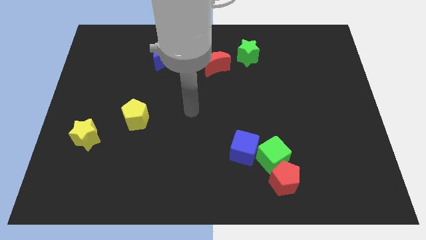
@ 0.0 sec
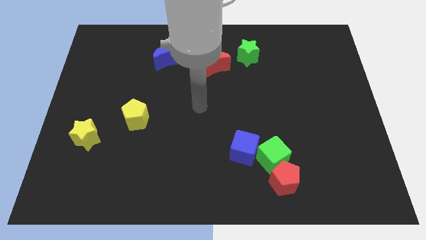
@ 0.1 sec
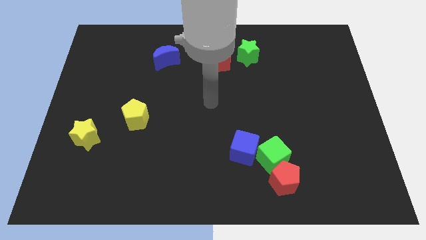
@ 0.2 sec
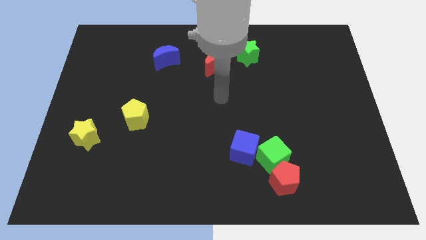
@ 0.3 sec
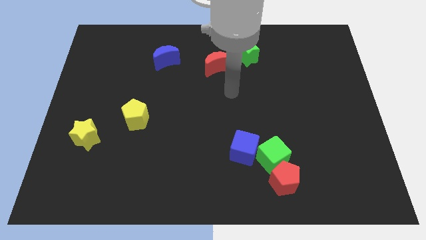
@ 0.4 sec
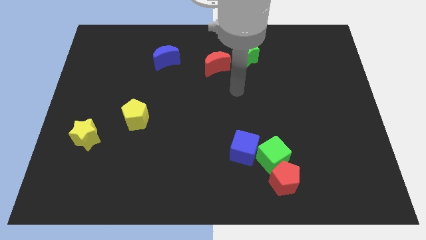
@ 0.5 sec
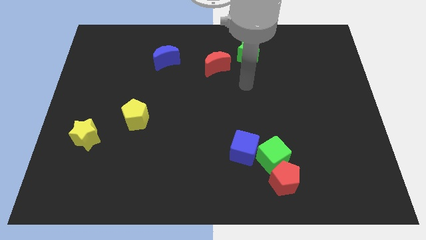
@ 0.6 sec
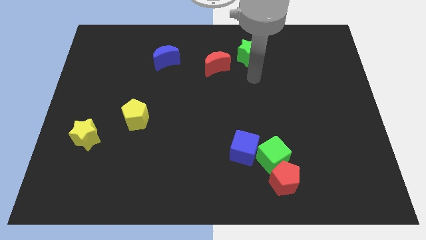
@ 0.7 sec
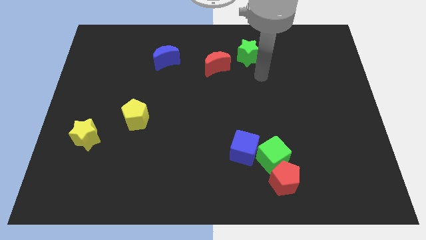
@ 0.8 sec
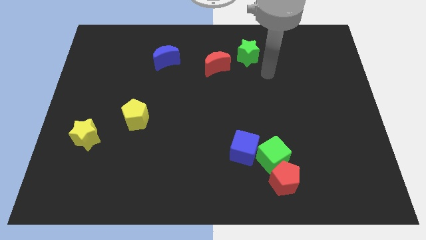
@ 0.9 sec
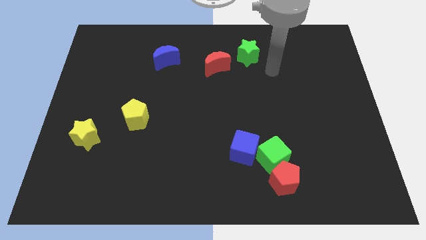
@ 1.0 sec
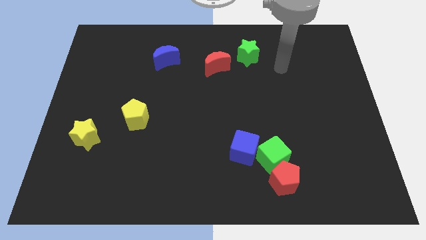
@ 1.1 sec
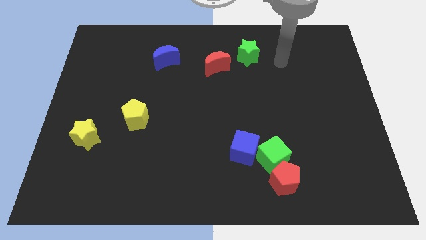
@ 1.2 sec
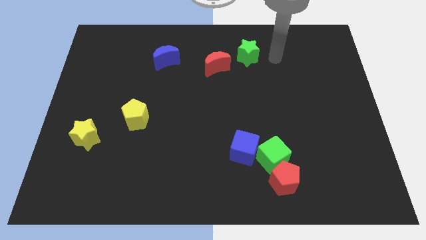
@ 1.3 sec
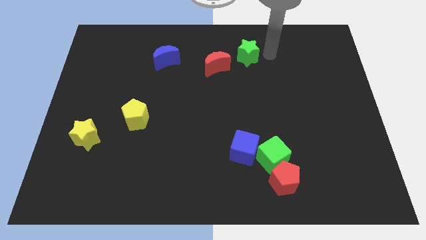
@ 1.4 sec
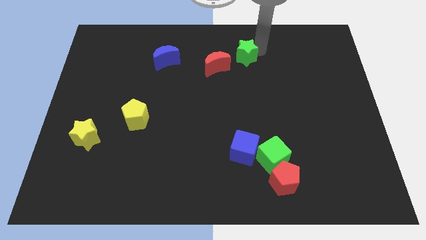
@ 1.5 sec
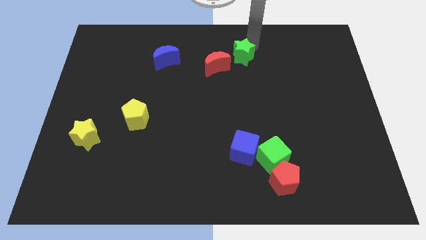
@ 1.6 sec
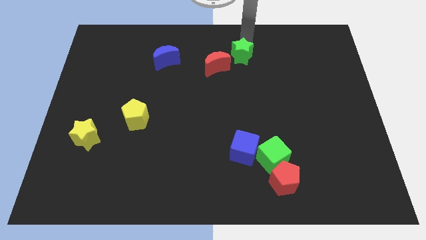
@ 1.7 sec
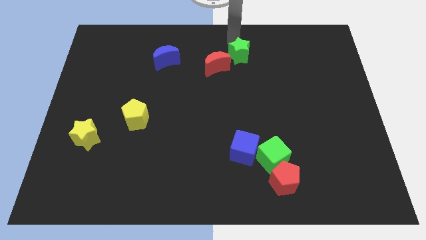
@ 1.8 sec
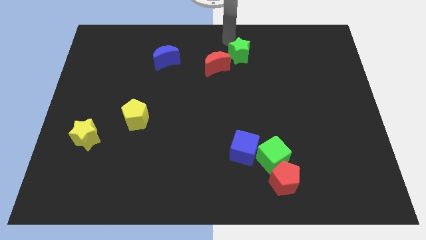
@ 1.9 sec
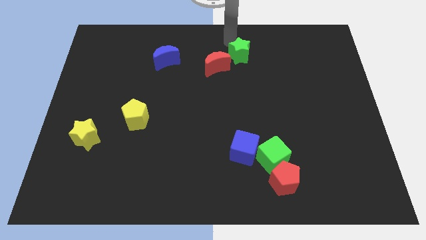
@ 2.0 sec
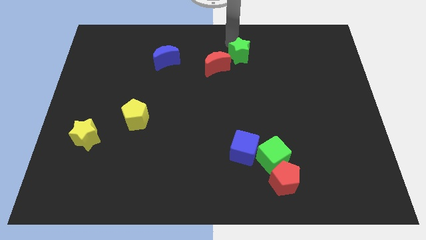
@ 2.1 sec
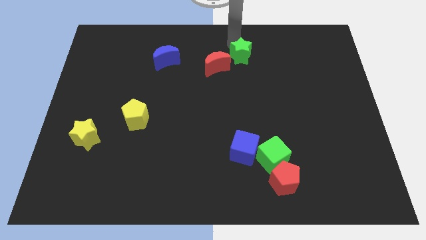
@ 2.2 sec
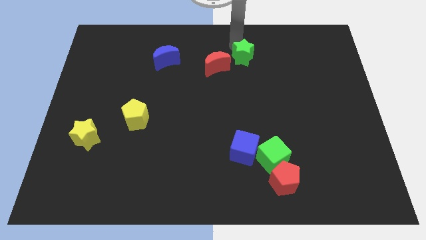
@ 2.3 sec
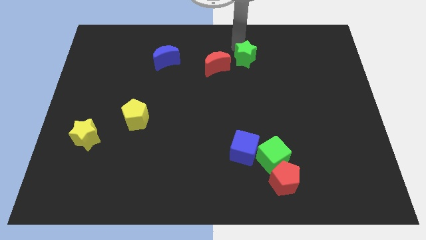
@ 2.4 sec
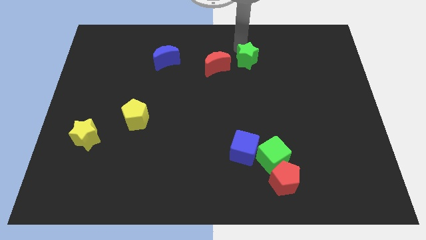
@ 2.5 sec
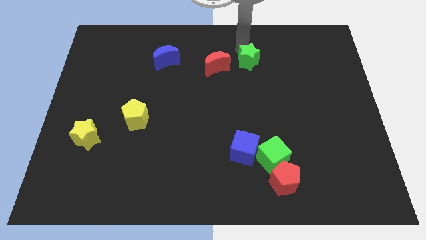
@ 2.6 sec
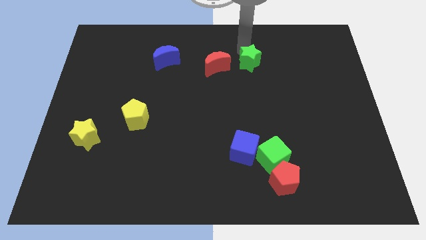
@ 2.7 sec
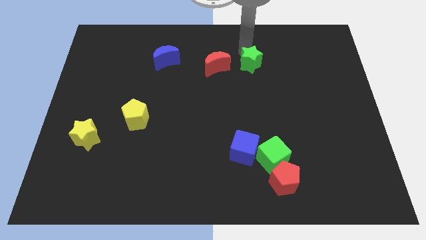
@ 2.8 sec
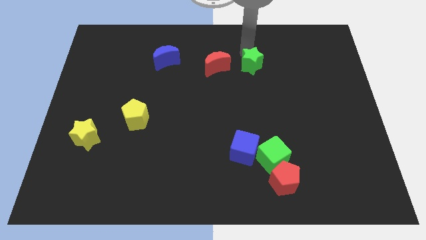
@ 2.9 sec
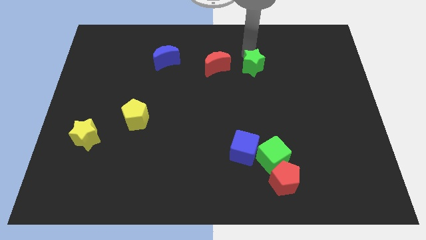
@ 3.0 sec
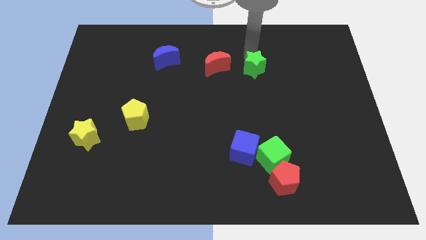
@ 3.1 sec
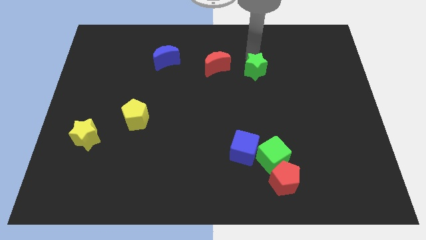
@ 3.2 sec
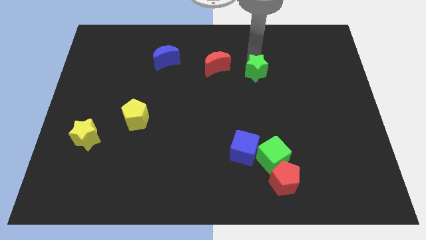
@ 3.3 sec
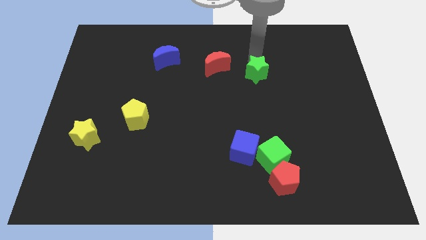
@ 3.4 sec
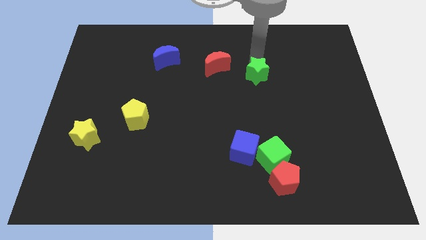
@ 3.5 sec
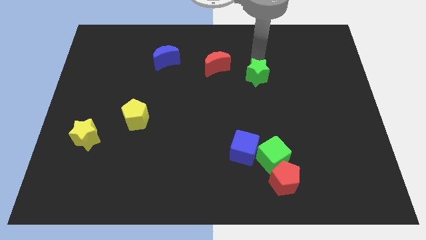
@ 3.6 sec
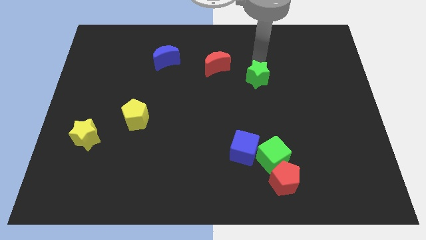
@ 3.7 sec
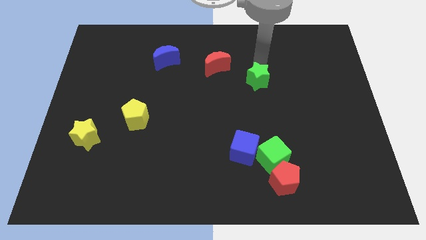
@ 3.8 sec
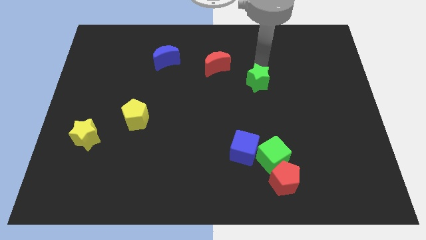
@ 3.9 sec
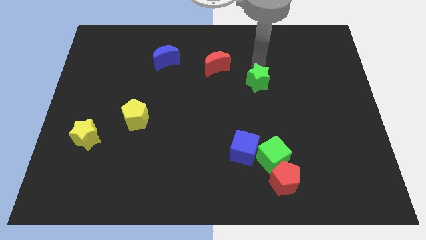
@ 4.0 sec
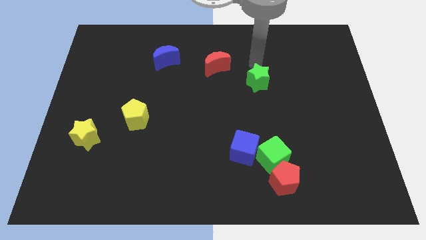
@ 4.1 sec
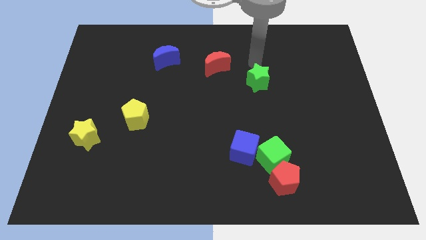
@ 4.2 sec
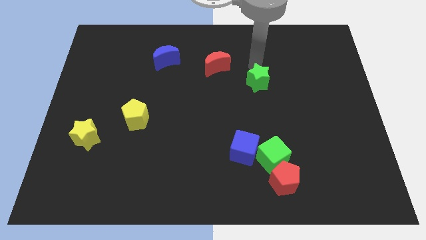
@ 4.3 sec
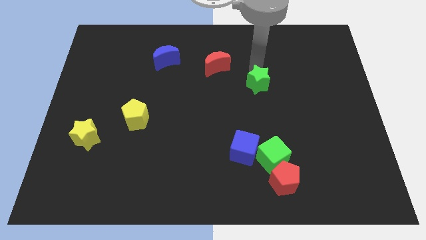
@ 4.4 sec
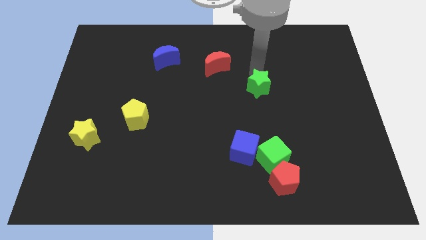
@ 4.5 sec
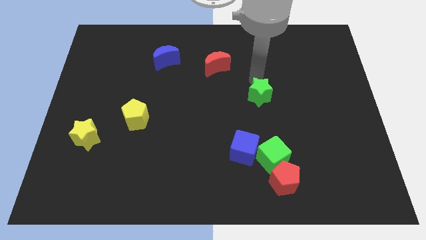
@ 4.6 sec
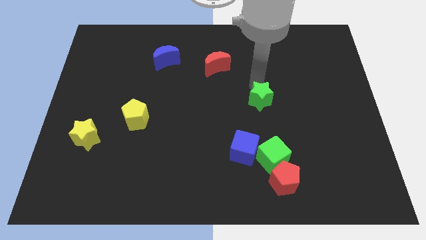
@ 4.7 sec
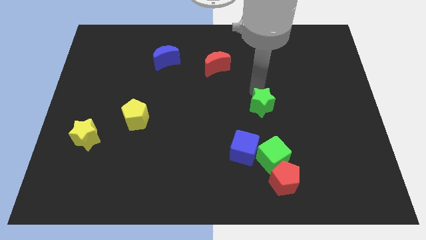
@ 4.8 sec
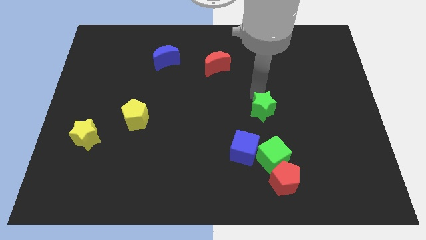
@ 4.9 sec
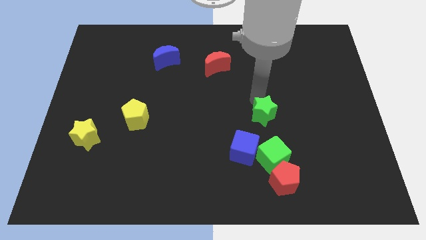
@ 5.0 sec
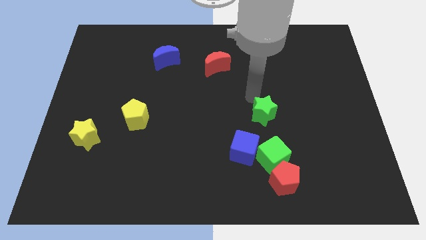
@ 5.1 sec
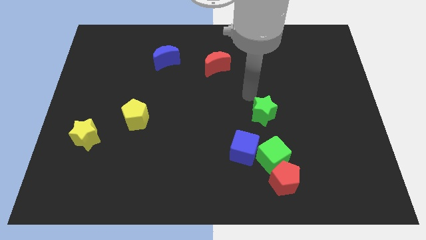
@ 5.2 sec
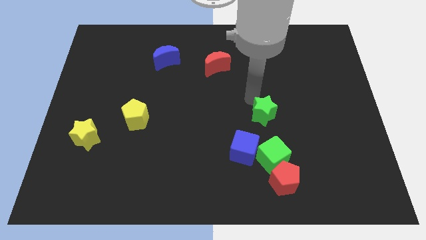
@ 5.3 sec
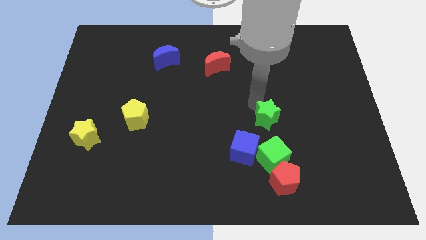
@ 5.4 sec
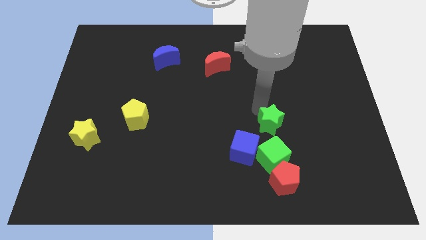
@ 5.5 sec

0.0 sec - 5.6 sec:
slide the green star to the top of the red pentagon

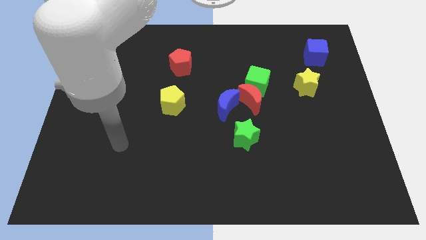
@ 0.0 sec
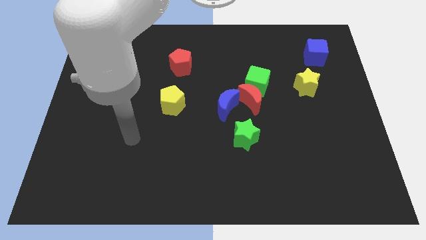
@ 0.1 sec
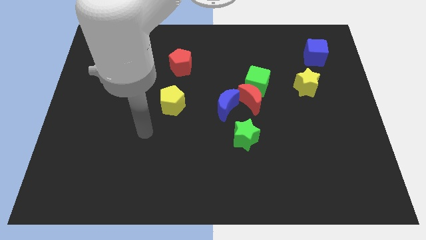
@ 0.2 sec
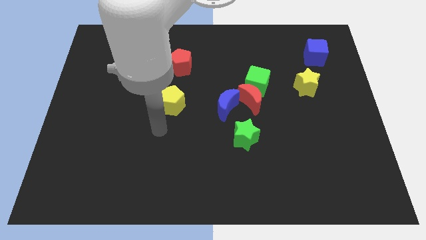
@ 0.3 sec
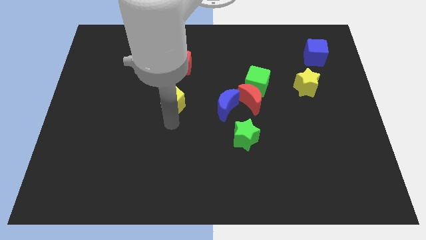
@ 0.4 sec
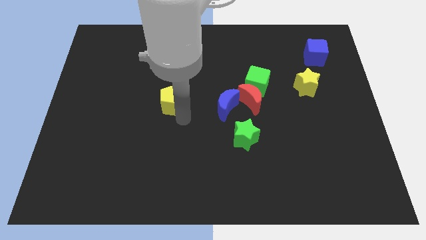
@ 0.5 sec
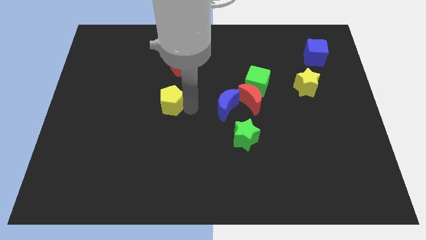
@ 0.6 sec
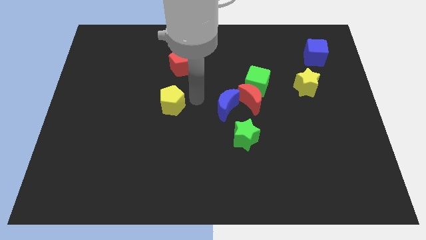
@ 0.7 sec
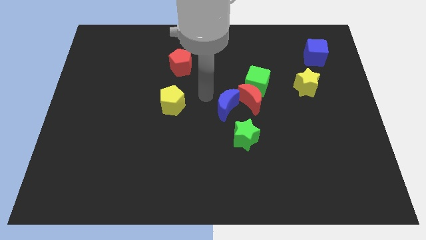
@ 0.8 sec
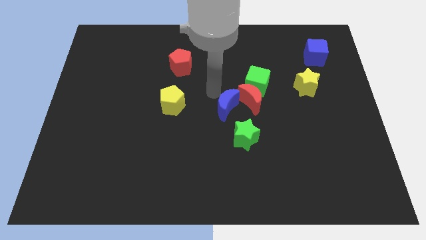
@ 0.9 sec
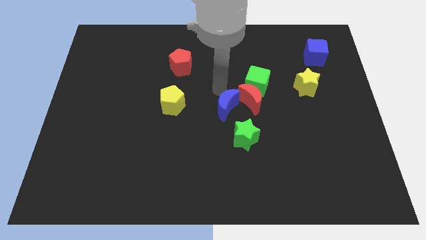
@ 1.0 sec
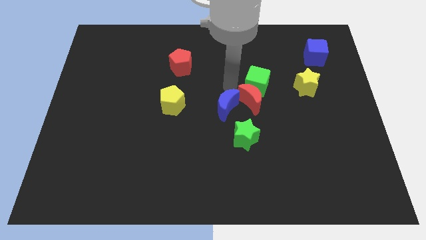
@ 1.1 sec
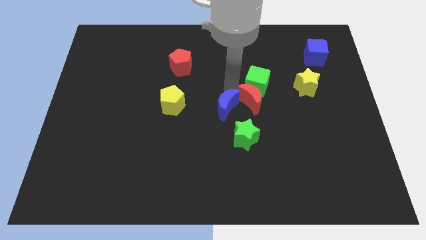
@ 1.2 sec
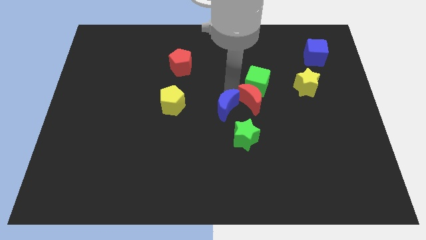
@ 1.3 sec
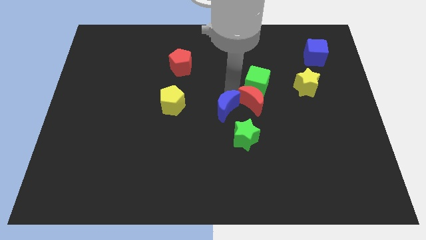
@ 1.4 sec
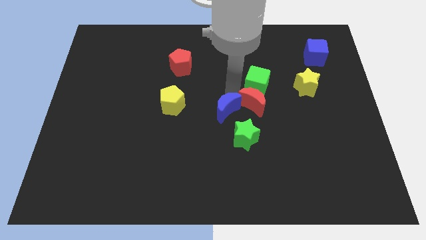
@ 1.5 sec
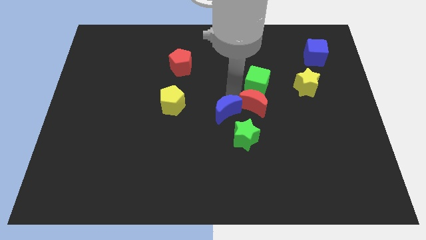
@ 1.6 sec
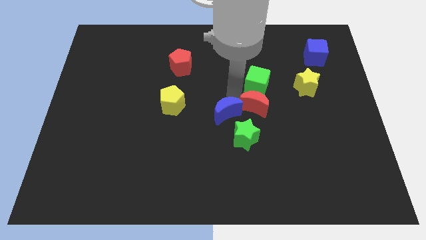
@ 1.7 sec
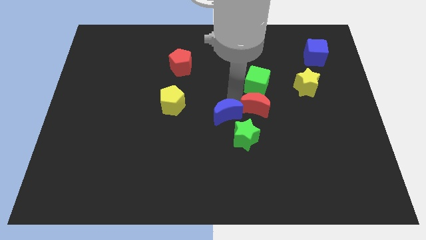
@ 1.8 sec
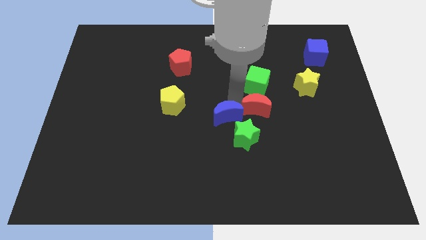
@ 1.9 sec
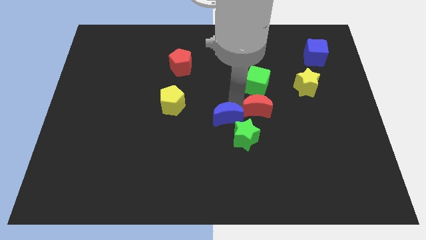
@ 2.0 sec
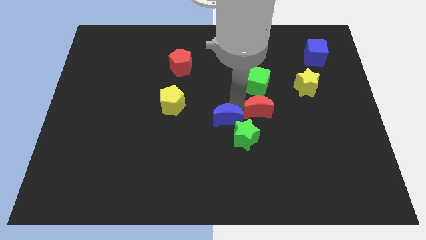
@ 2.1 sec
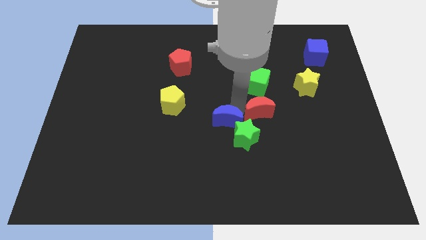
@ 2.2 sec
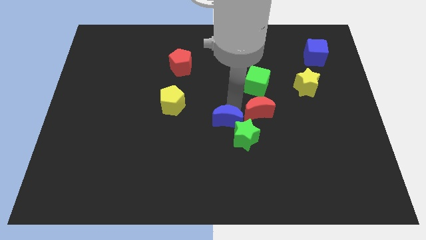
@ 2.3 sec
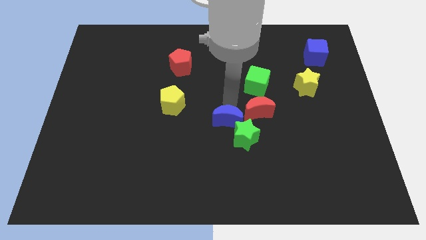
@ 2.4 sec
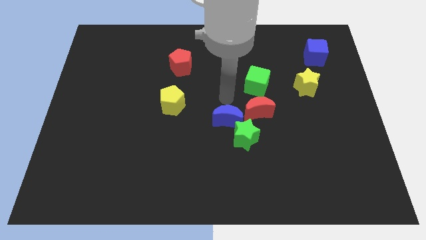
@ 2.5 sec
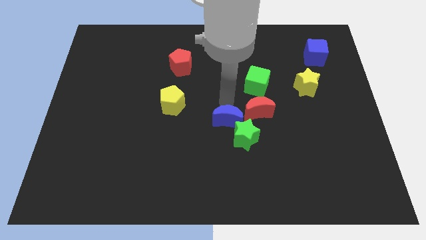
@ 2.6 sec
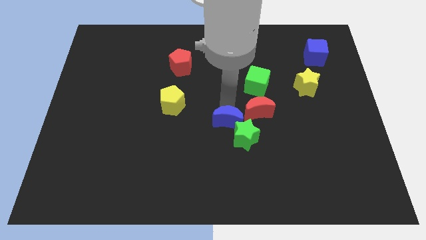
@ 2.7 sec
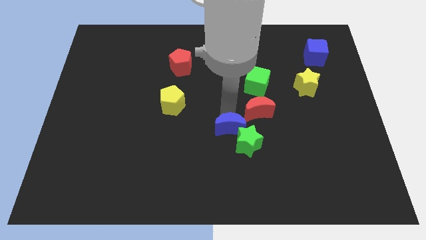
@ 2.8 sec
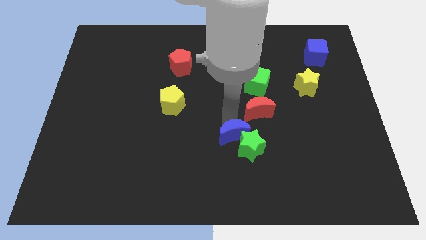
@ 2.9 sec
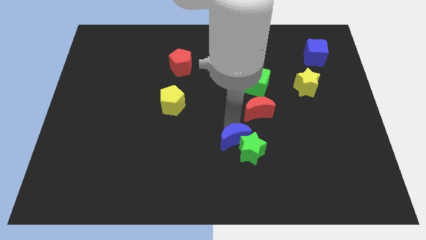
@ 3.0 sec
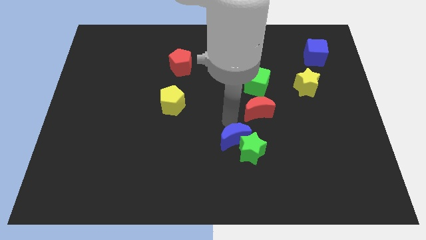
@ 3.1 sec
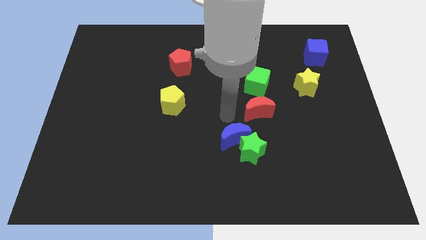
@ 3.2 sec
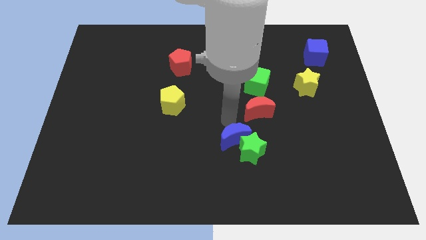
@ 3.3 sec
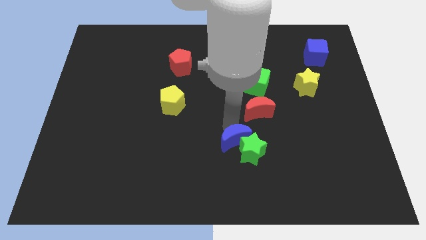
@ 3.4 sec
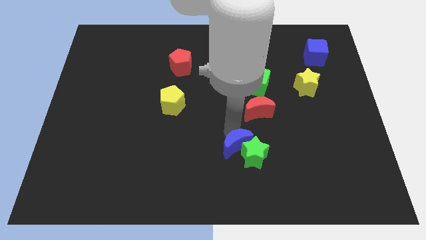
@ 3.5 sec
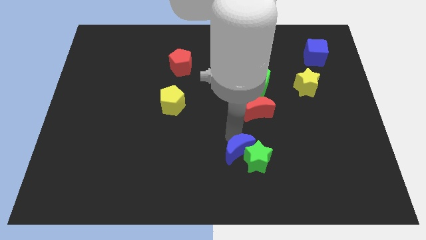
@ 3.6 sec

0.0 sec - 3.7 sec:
move the blue moon to the bottom of the red moon
